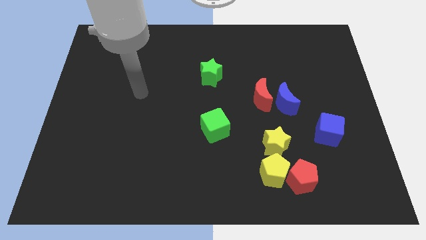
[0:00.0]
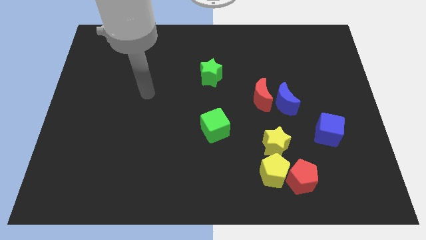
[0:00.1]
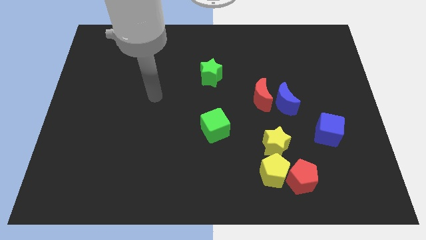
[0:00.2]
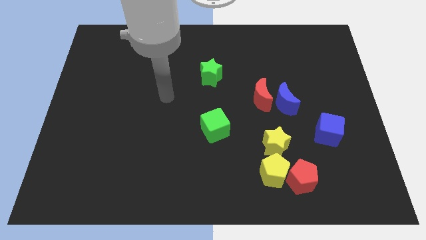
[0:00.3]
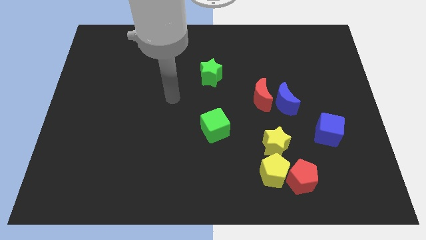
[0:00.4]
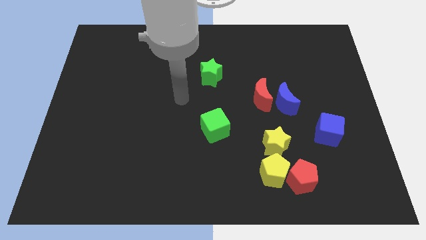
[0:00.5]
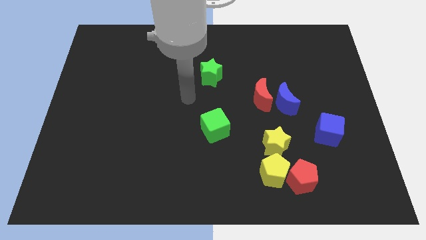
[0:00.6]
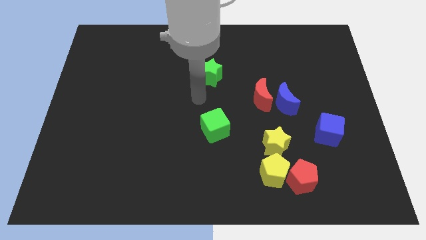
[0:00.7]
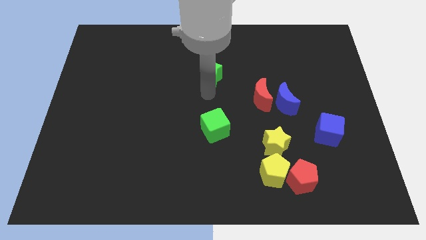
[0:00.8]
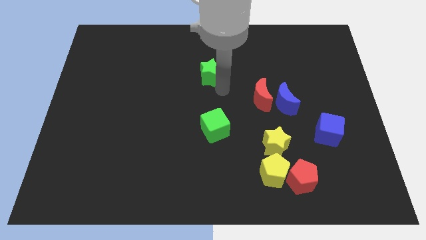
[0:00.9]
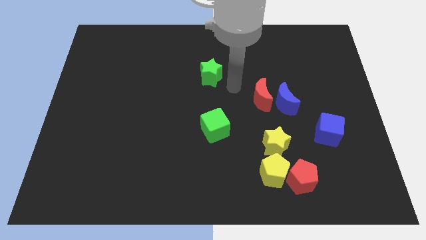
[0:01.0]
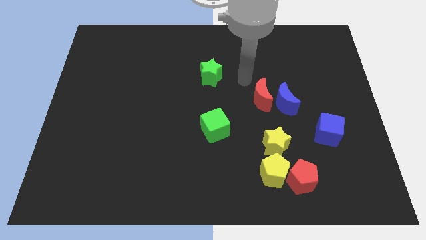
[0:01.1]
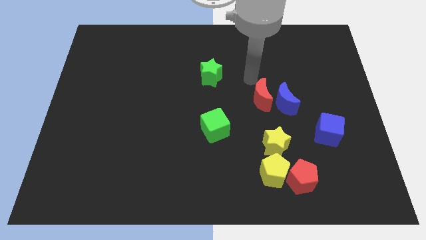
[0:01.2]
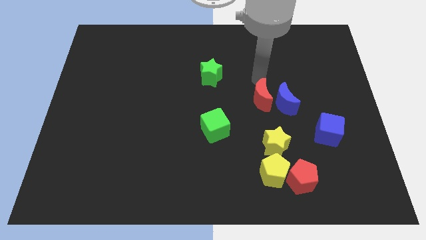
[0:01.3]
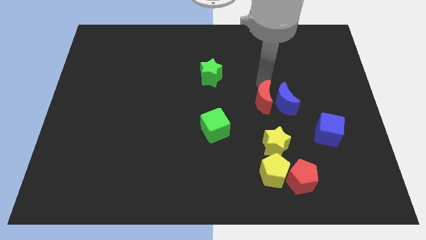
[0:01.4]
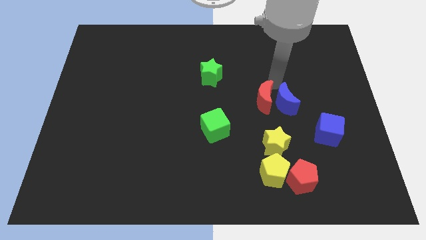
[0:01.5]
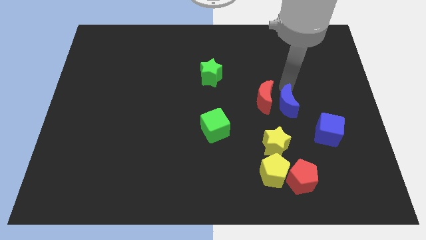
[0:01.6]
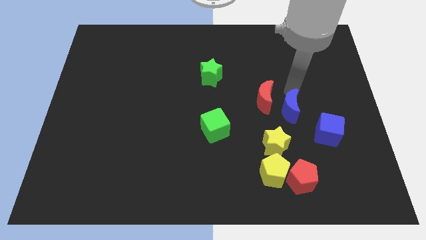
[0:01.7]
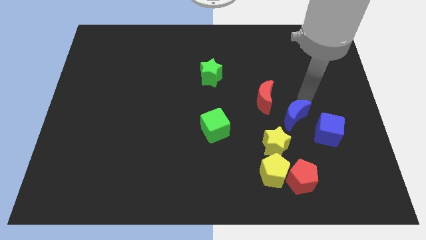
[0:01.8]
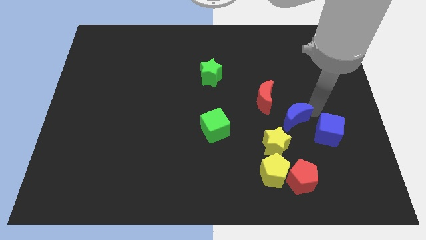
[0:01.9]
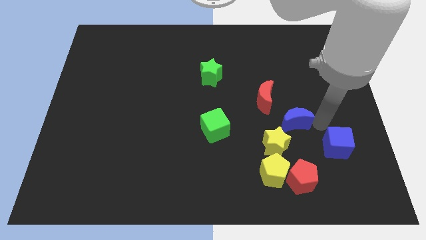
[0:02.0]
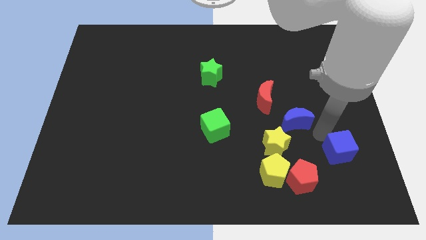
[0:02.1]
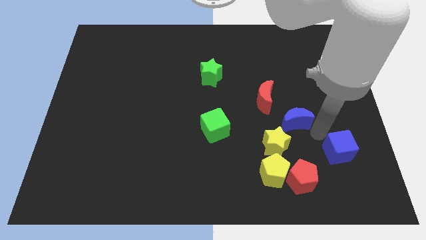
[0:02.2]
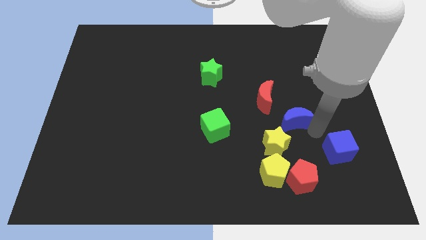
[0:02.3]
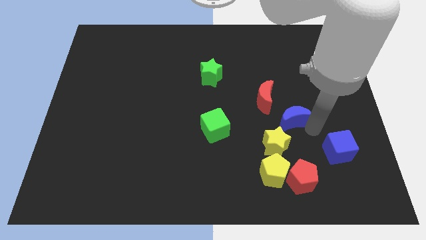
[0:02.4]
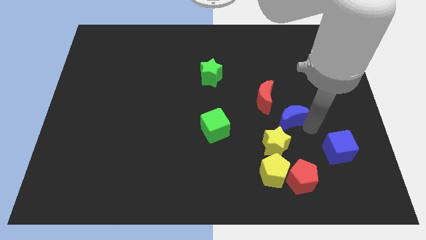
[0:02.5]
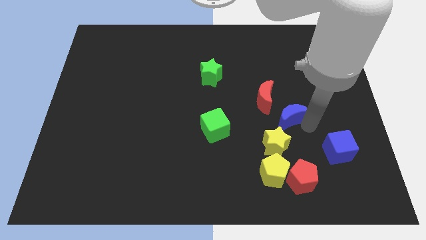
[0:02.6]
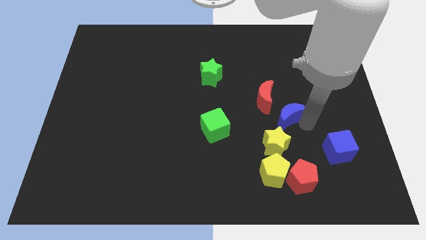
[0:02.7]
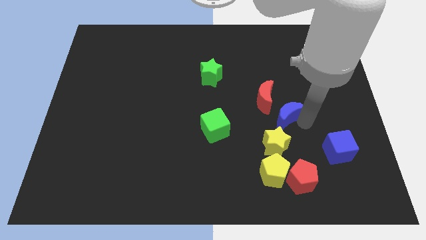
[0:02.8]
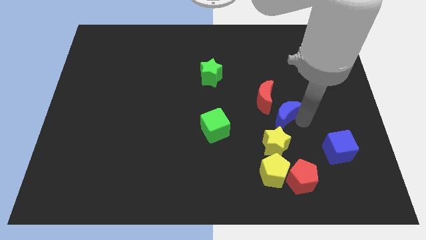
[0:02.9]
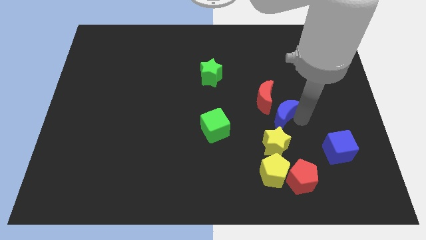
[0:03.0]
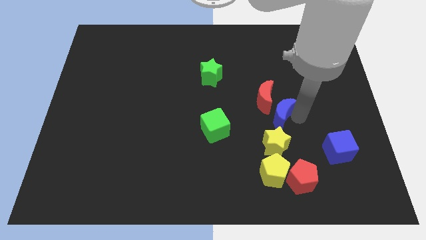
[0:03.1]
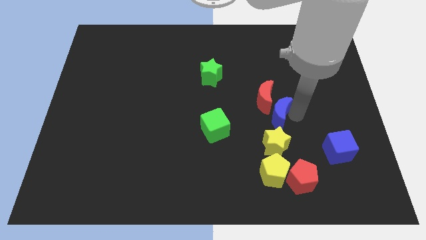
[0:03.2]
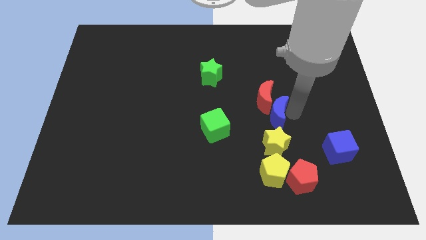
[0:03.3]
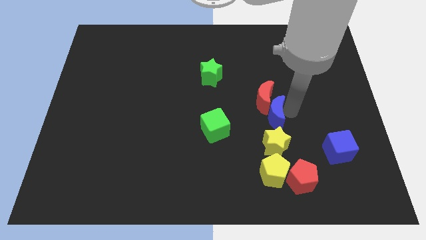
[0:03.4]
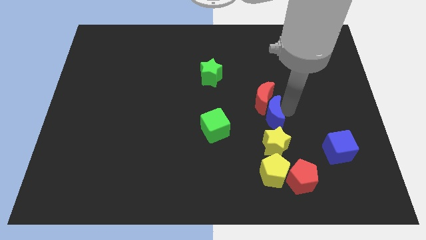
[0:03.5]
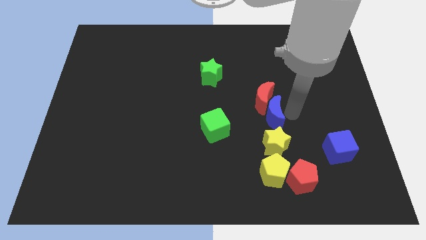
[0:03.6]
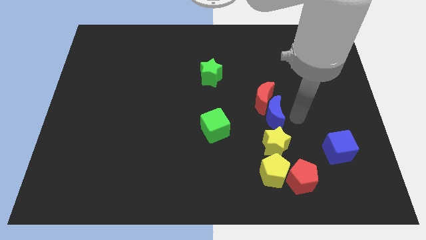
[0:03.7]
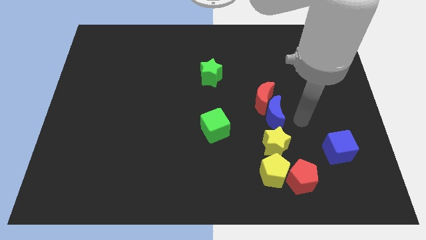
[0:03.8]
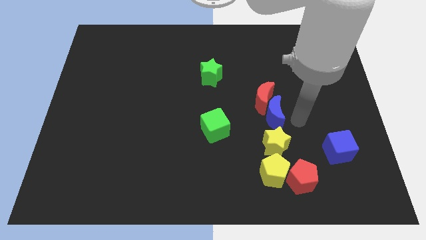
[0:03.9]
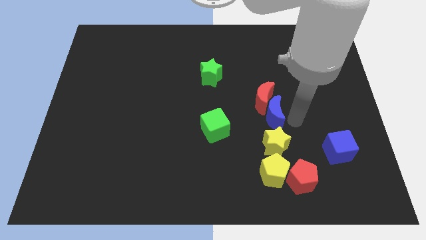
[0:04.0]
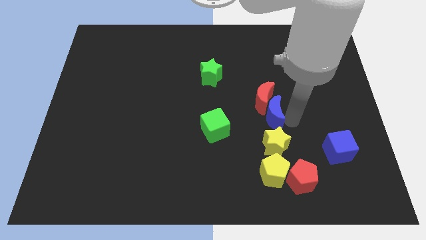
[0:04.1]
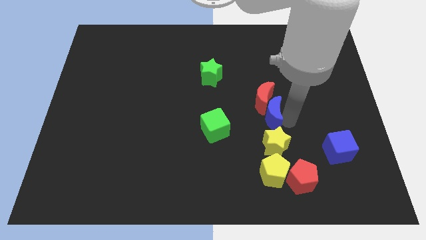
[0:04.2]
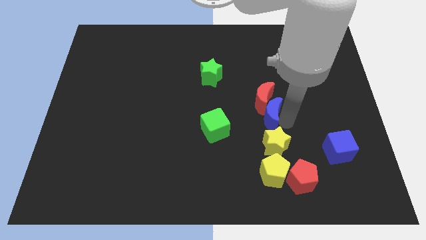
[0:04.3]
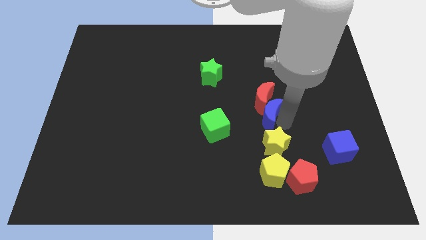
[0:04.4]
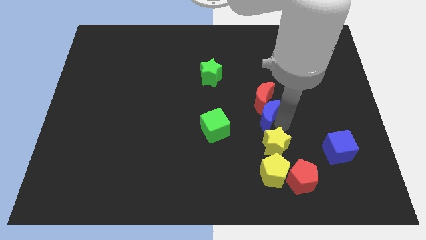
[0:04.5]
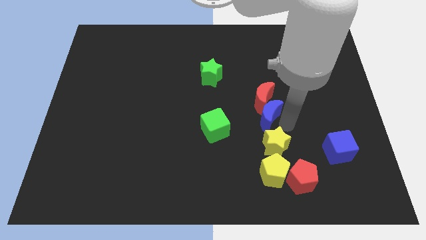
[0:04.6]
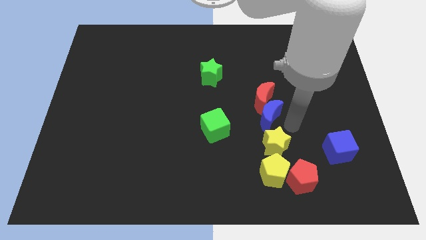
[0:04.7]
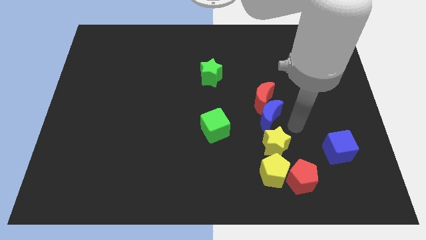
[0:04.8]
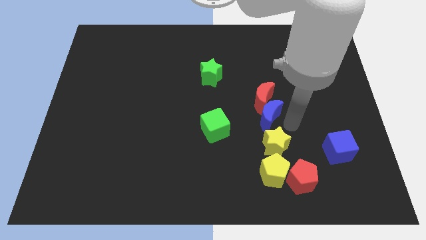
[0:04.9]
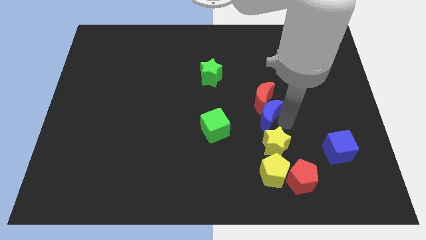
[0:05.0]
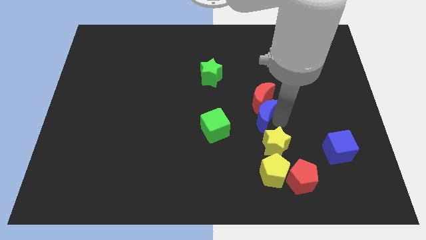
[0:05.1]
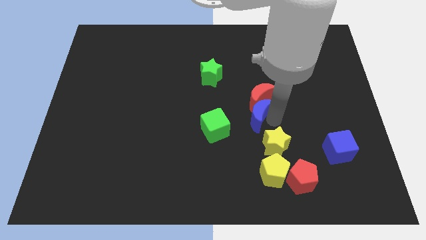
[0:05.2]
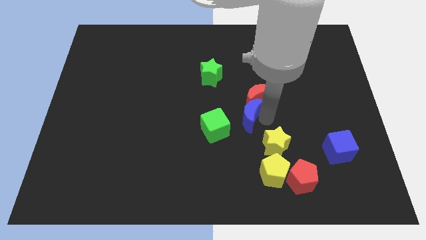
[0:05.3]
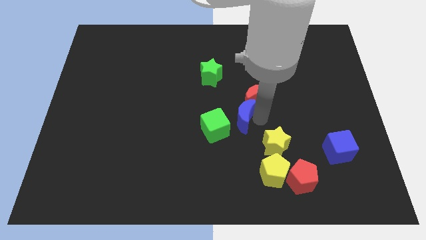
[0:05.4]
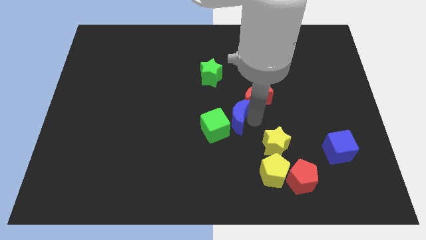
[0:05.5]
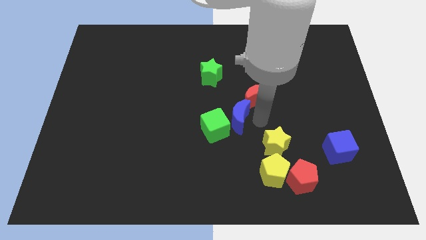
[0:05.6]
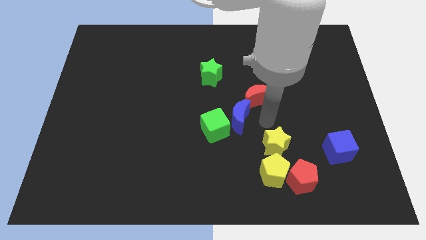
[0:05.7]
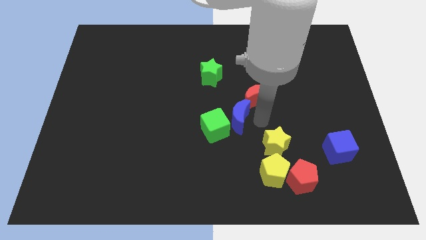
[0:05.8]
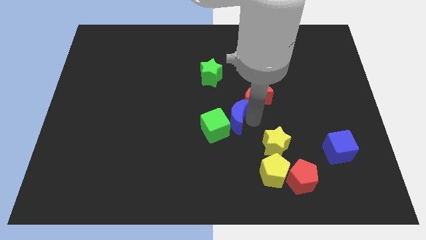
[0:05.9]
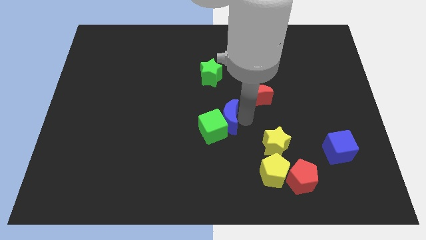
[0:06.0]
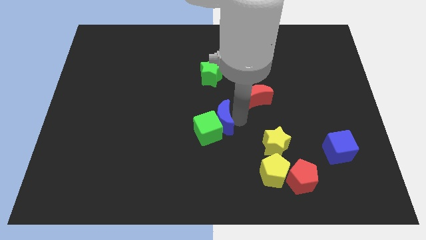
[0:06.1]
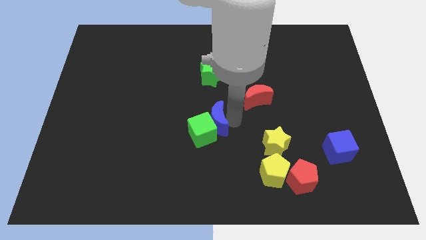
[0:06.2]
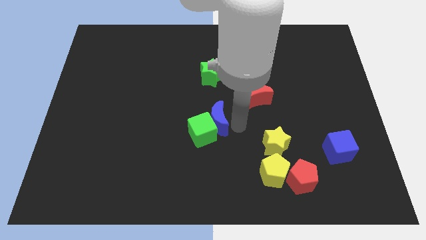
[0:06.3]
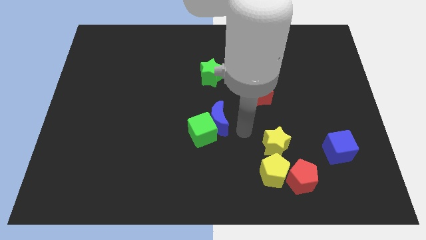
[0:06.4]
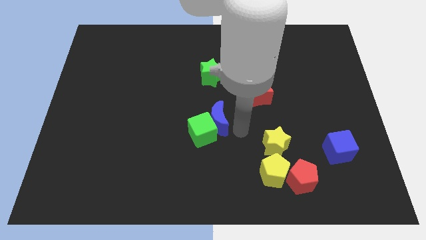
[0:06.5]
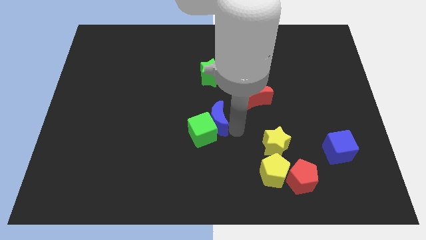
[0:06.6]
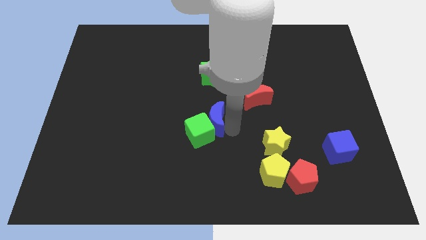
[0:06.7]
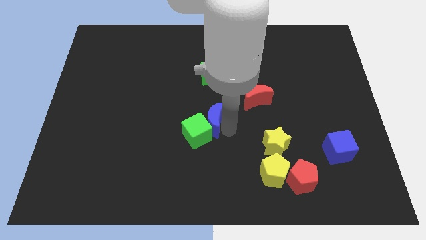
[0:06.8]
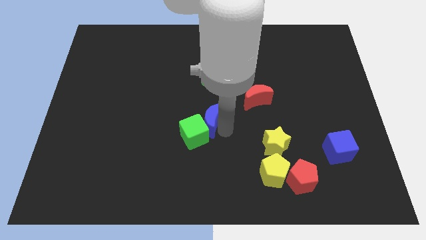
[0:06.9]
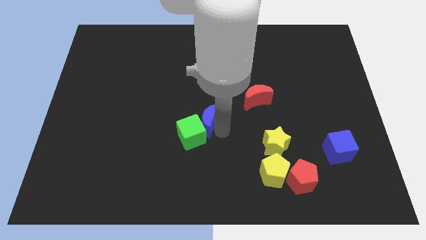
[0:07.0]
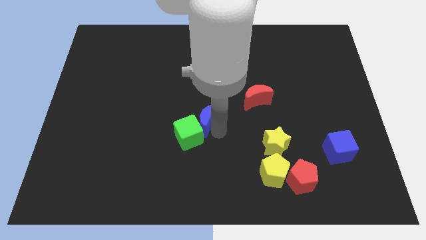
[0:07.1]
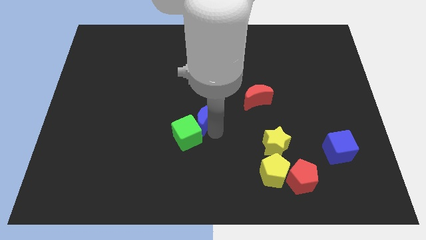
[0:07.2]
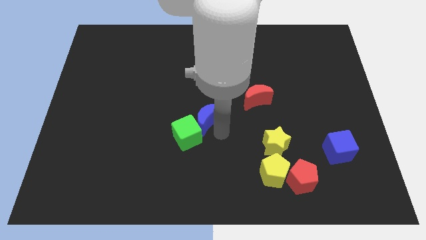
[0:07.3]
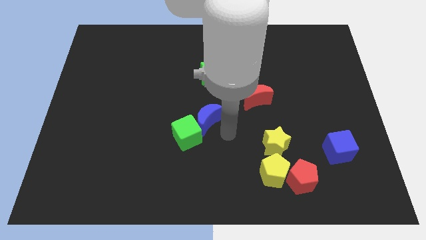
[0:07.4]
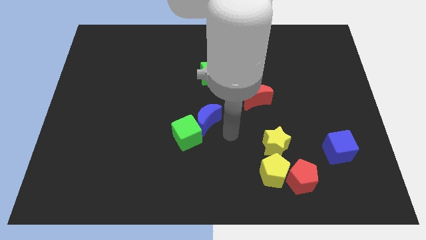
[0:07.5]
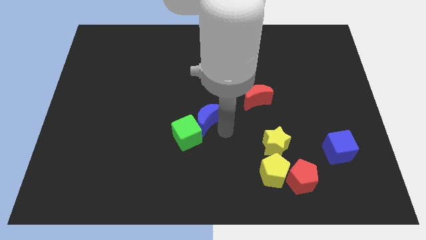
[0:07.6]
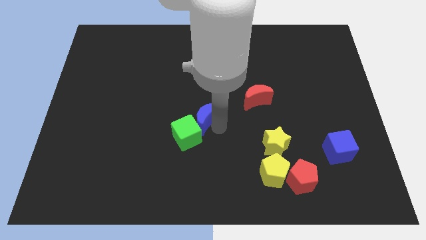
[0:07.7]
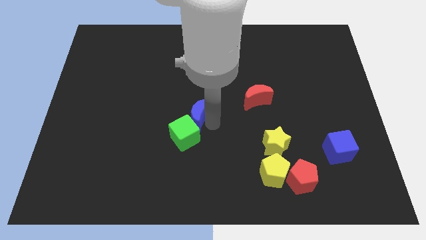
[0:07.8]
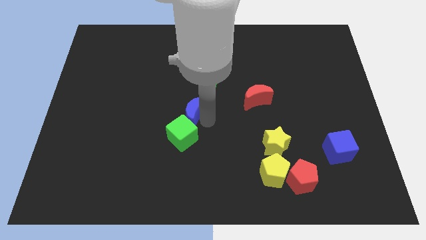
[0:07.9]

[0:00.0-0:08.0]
move the blue moon left
